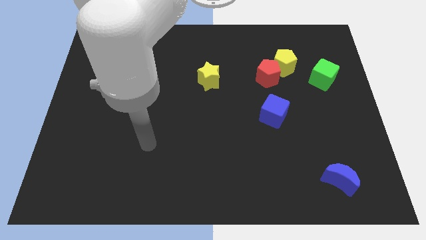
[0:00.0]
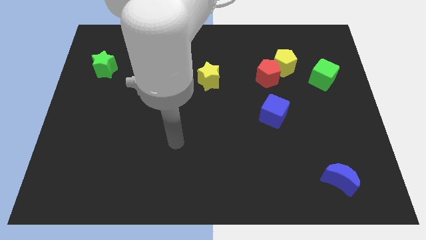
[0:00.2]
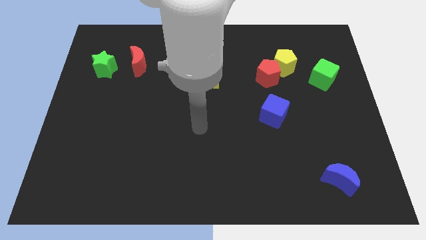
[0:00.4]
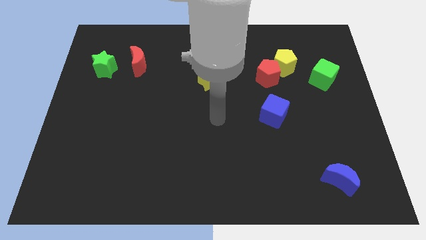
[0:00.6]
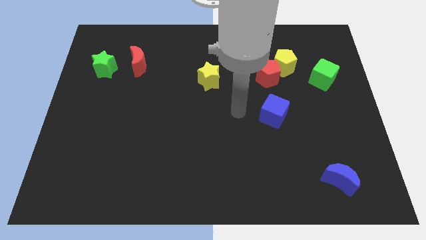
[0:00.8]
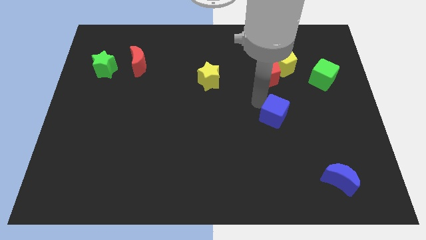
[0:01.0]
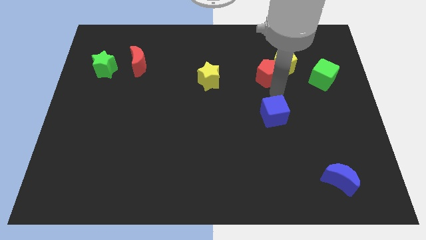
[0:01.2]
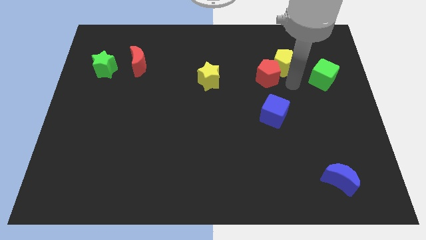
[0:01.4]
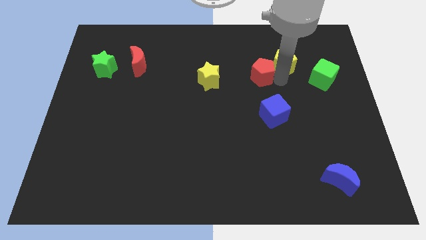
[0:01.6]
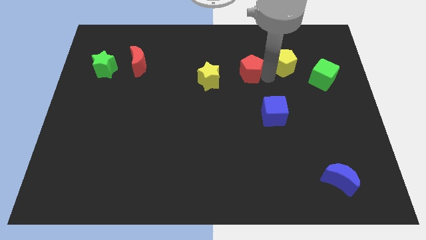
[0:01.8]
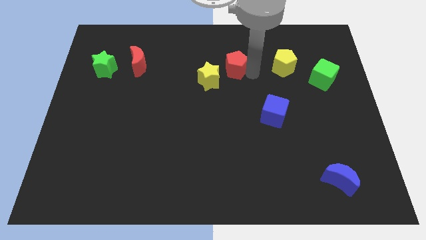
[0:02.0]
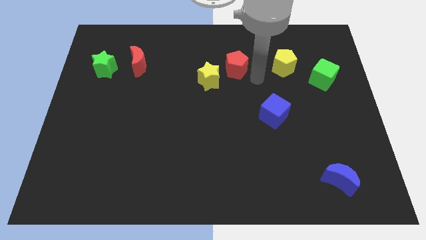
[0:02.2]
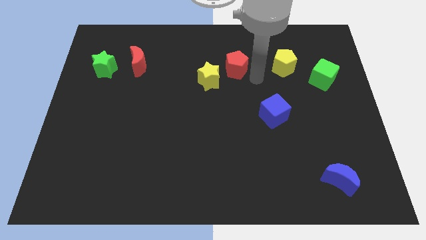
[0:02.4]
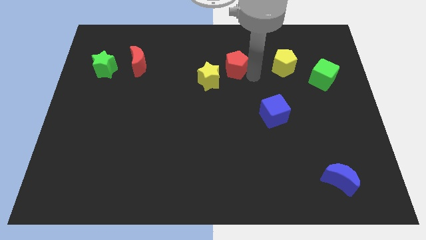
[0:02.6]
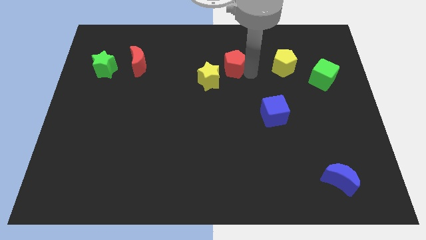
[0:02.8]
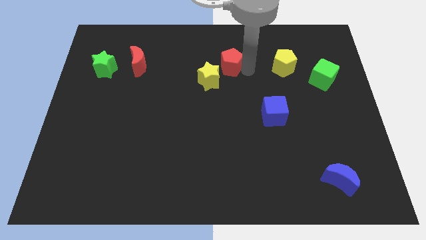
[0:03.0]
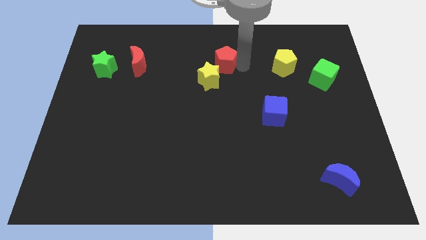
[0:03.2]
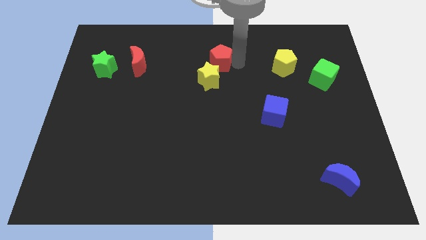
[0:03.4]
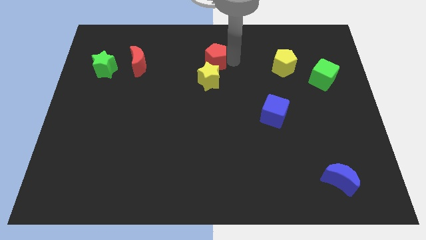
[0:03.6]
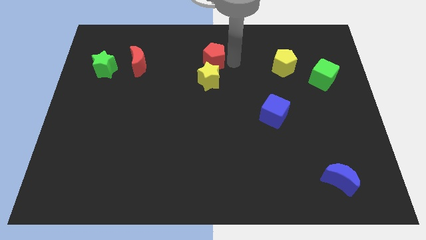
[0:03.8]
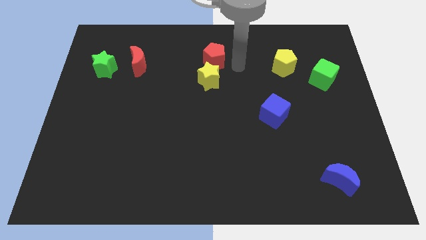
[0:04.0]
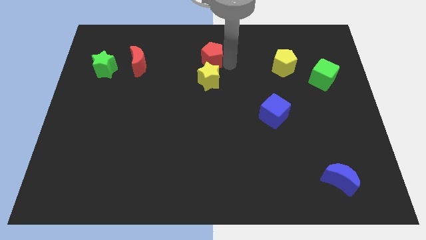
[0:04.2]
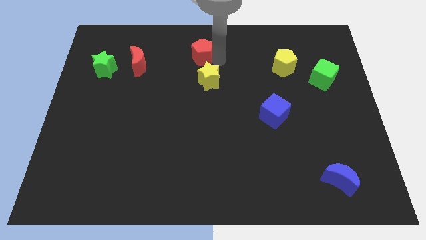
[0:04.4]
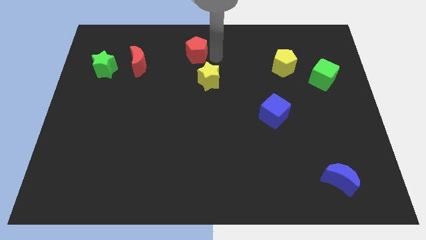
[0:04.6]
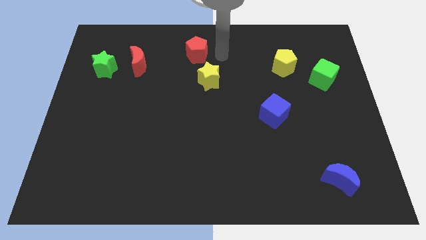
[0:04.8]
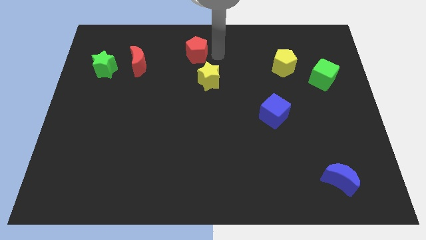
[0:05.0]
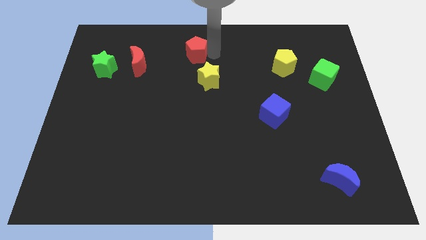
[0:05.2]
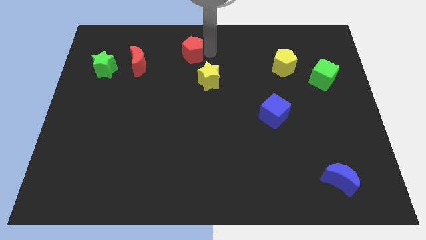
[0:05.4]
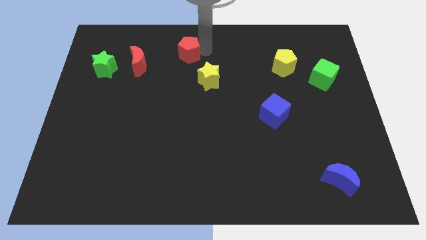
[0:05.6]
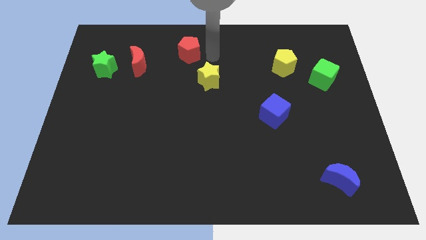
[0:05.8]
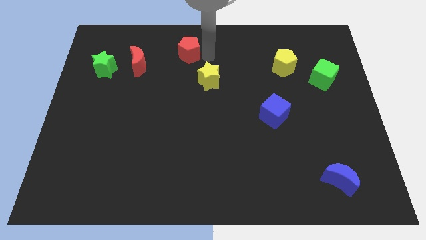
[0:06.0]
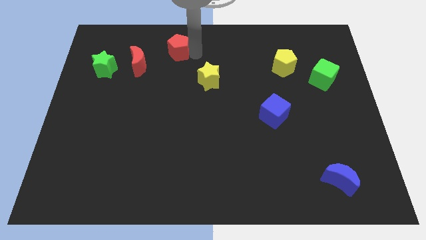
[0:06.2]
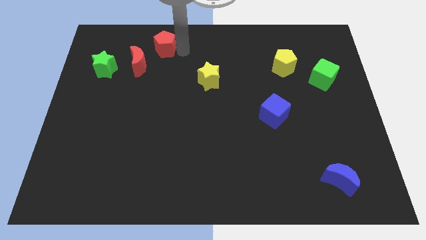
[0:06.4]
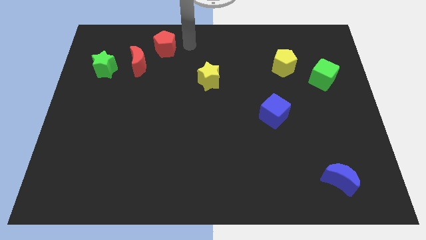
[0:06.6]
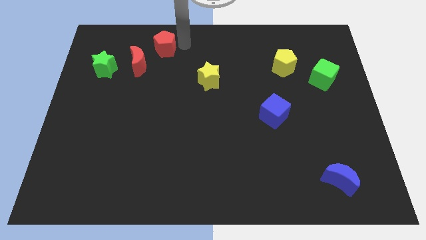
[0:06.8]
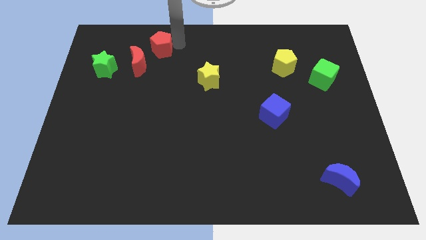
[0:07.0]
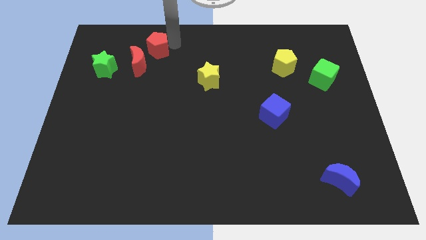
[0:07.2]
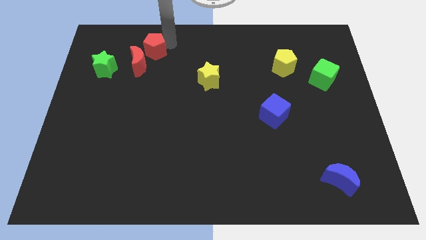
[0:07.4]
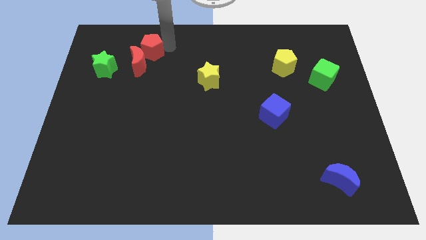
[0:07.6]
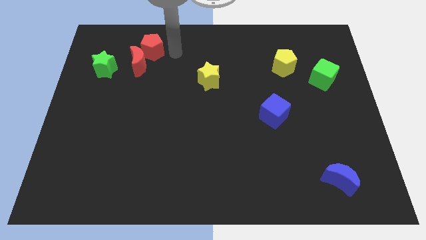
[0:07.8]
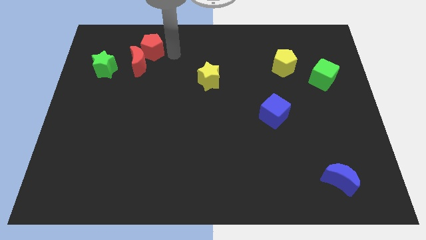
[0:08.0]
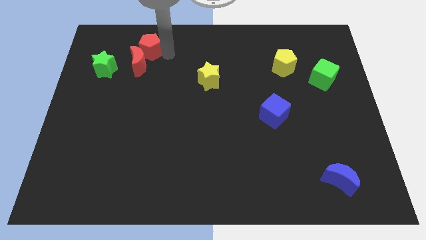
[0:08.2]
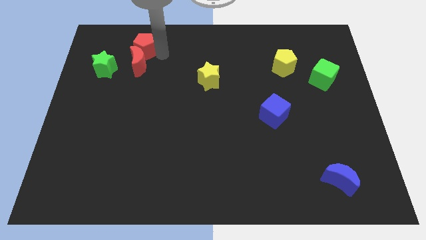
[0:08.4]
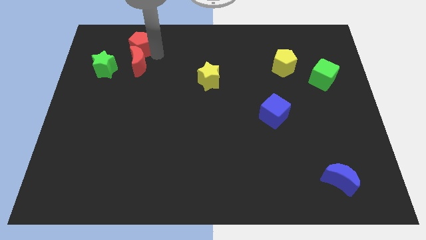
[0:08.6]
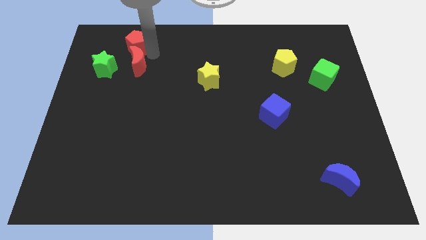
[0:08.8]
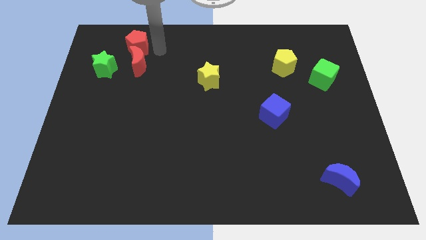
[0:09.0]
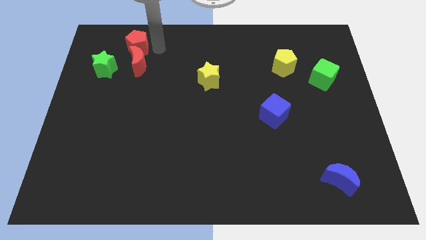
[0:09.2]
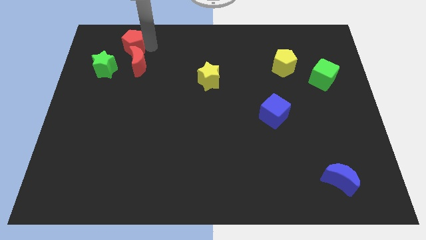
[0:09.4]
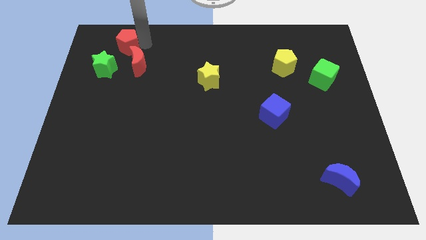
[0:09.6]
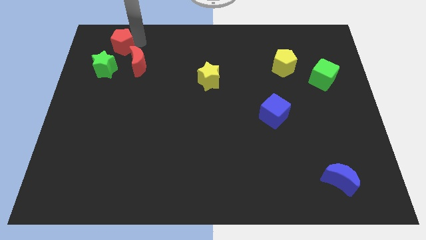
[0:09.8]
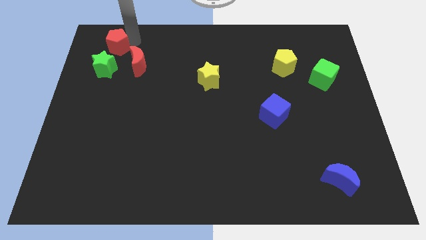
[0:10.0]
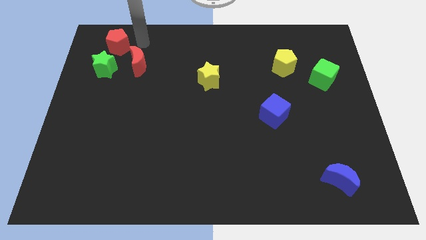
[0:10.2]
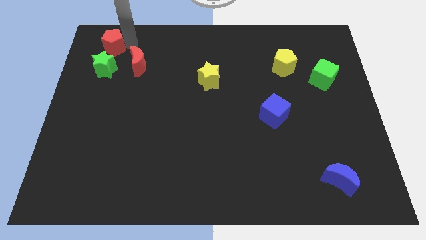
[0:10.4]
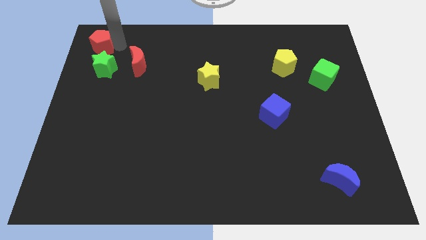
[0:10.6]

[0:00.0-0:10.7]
put the red pentagon to the top left

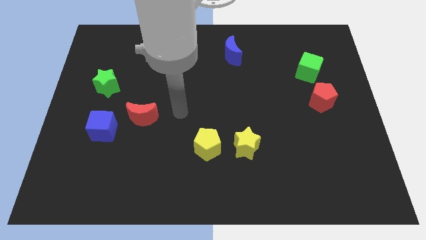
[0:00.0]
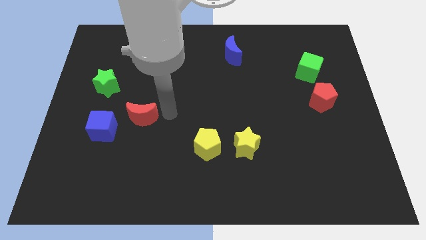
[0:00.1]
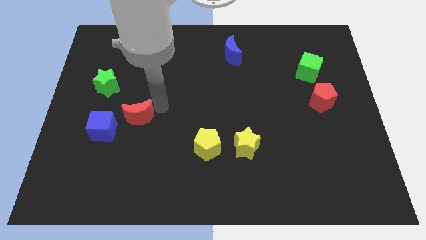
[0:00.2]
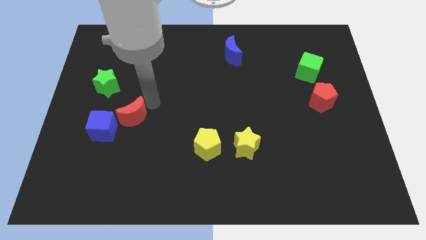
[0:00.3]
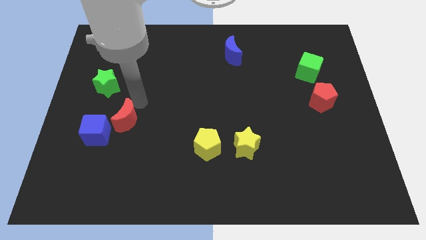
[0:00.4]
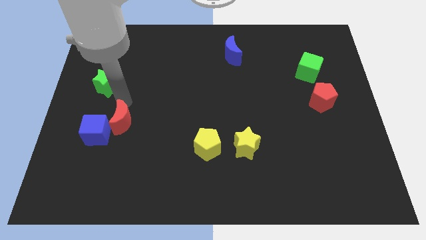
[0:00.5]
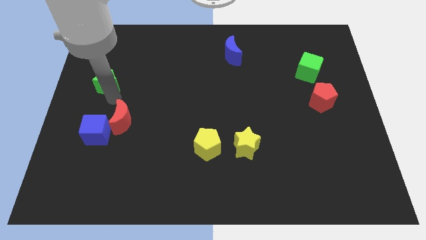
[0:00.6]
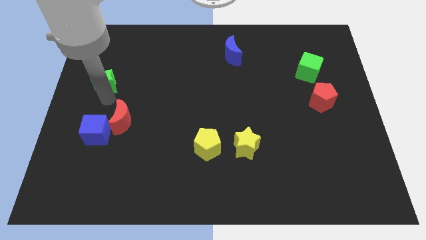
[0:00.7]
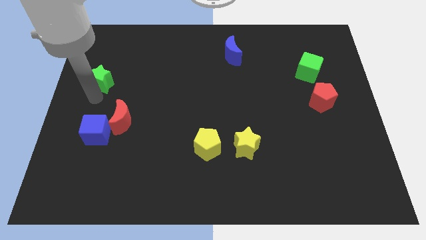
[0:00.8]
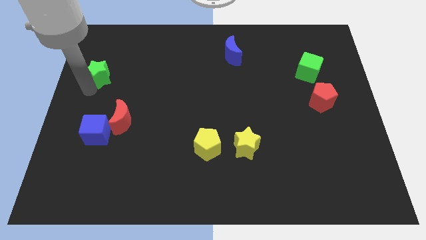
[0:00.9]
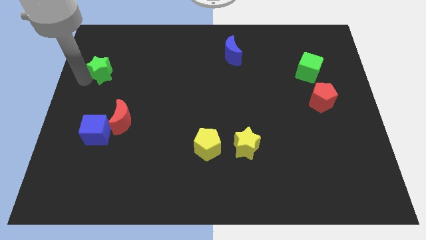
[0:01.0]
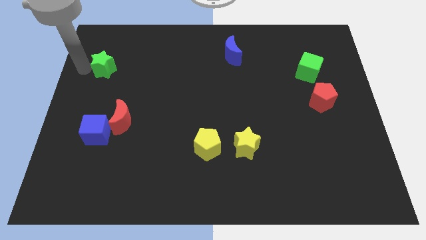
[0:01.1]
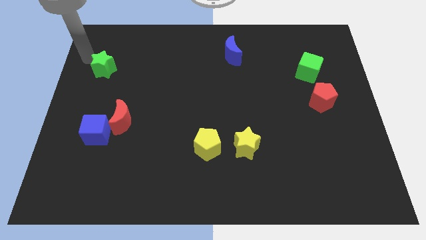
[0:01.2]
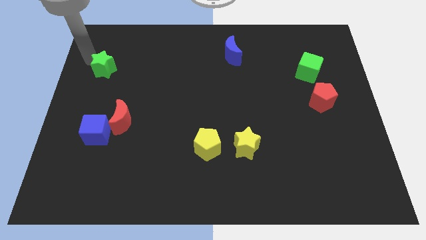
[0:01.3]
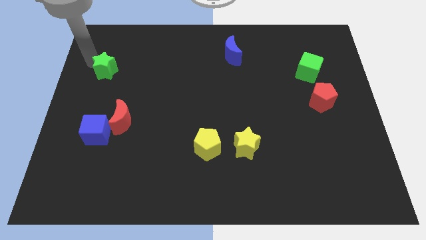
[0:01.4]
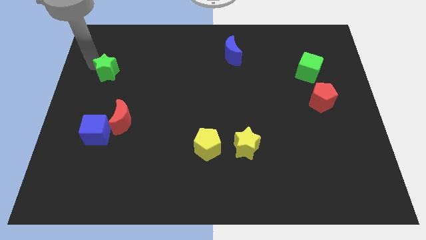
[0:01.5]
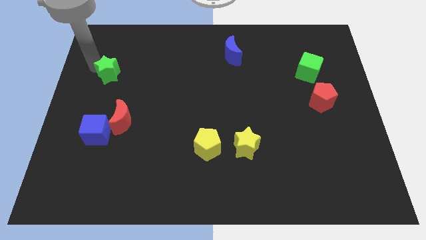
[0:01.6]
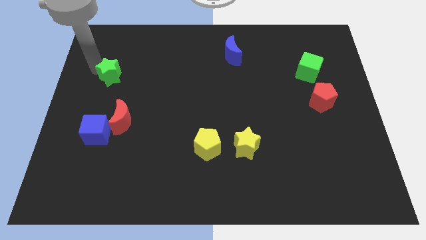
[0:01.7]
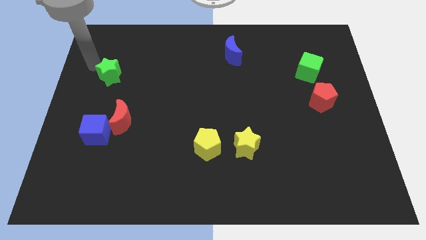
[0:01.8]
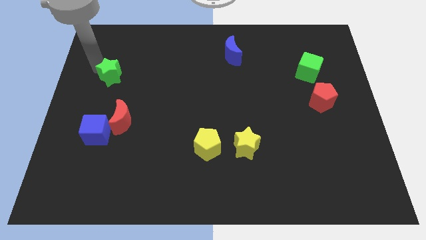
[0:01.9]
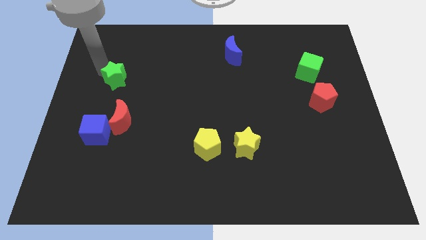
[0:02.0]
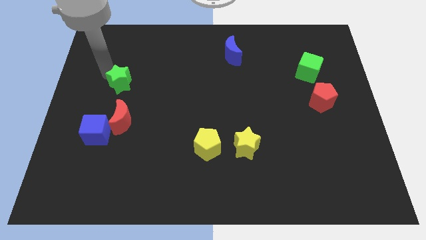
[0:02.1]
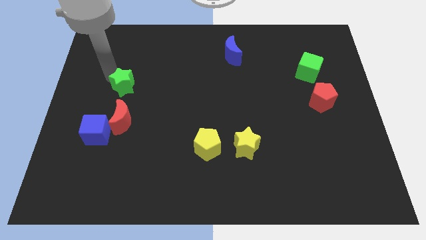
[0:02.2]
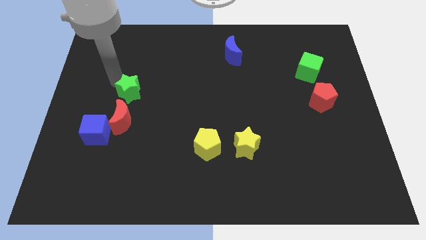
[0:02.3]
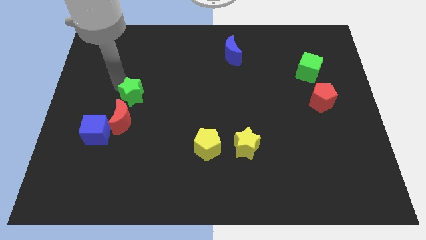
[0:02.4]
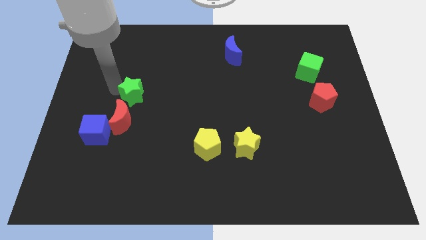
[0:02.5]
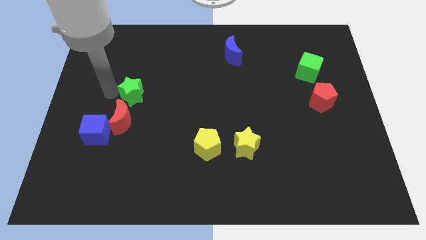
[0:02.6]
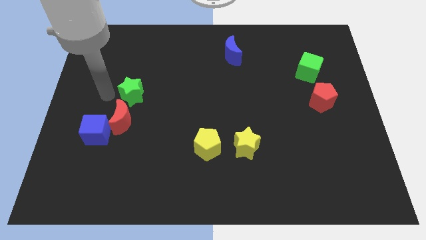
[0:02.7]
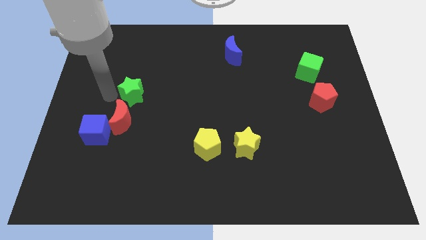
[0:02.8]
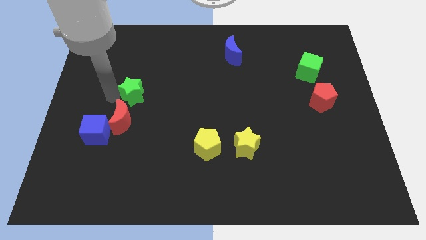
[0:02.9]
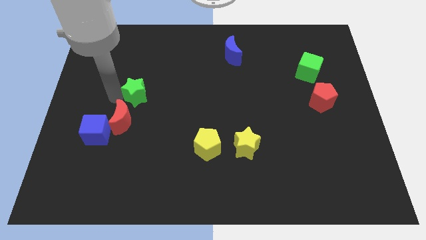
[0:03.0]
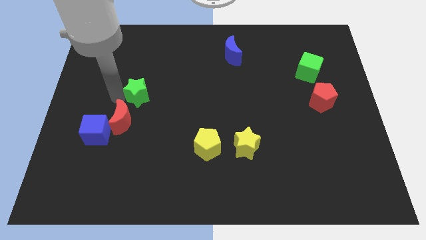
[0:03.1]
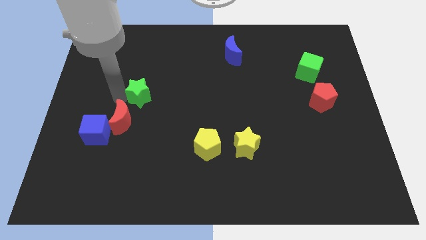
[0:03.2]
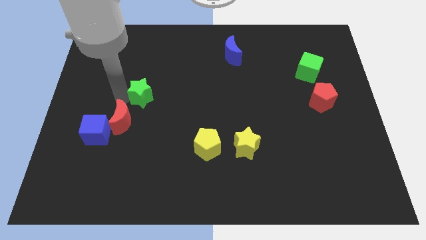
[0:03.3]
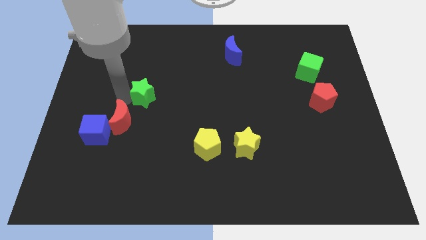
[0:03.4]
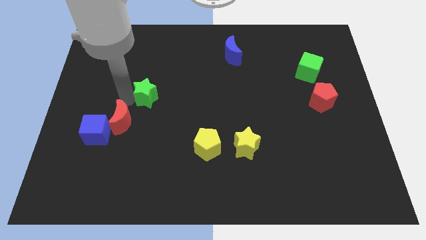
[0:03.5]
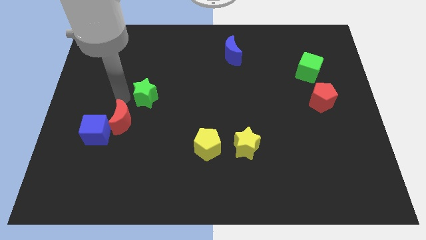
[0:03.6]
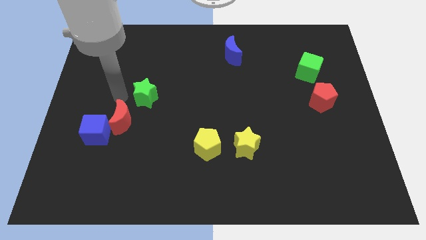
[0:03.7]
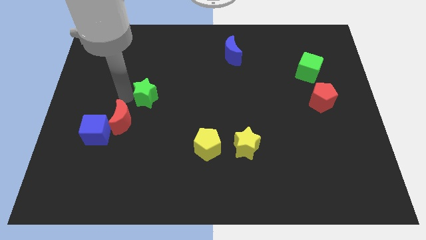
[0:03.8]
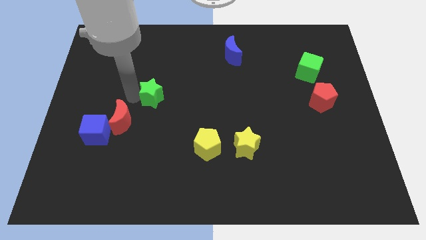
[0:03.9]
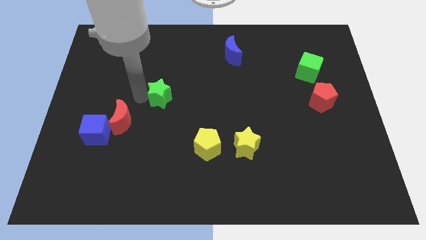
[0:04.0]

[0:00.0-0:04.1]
move the green star to the center
